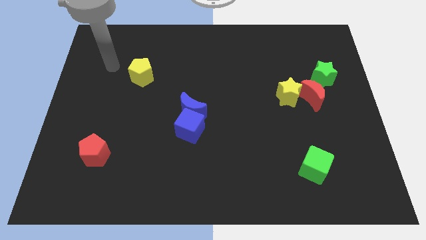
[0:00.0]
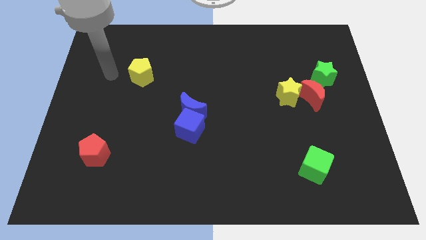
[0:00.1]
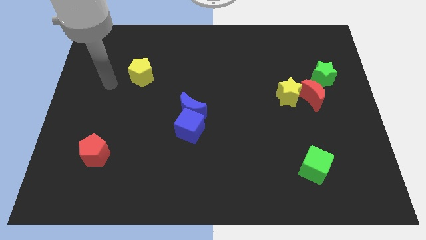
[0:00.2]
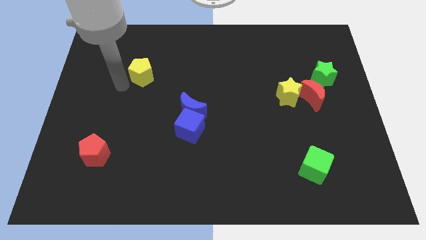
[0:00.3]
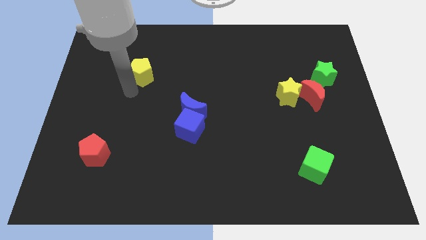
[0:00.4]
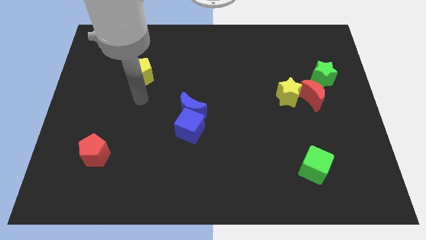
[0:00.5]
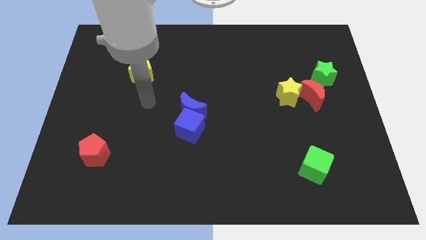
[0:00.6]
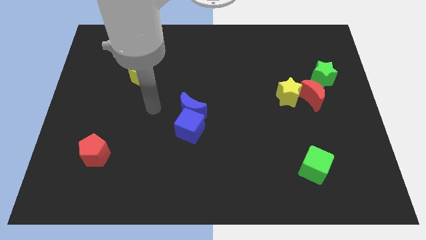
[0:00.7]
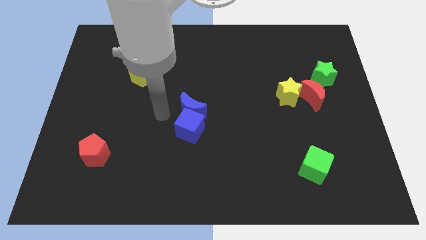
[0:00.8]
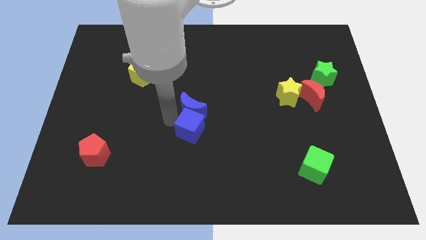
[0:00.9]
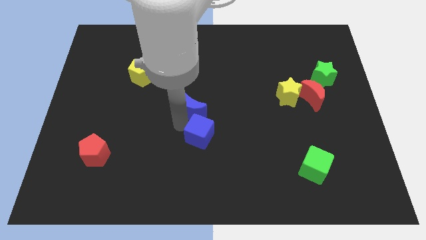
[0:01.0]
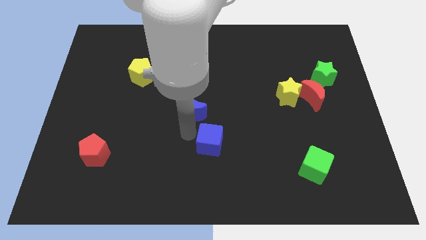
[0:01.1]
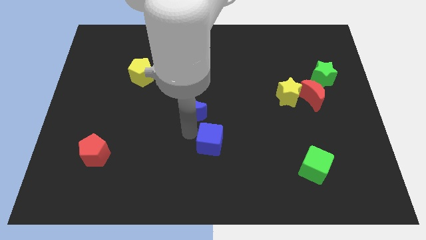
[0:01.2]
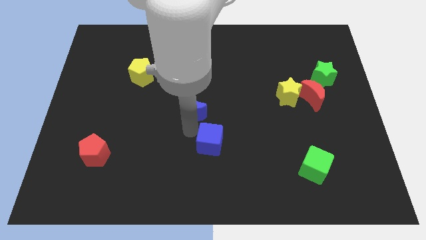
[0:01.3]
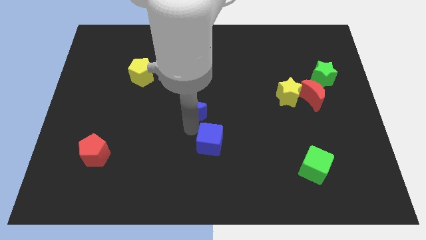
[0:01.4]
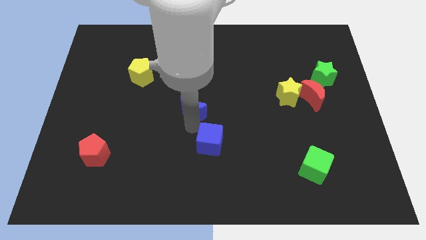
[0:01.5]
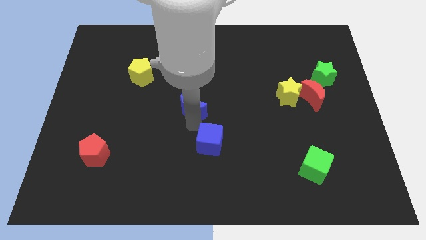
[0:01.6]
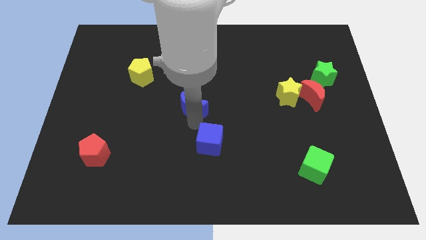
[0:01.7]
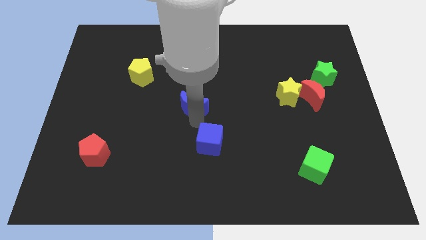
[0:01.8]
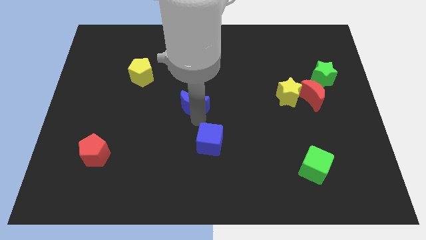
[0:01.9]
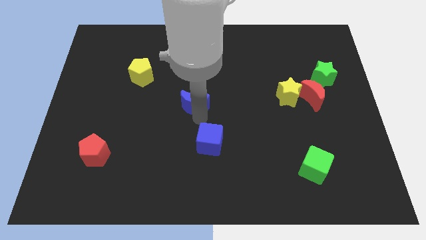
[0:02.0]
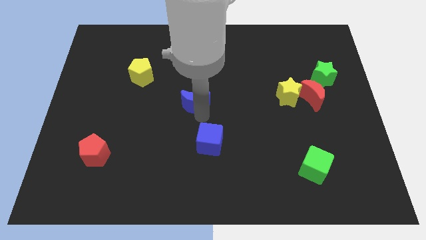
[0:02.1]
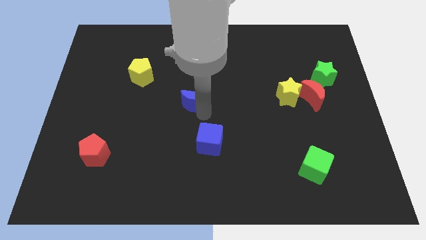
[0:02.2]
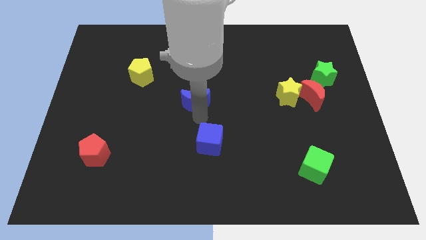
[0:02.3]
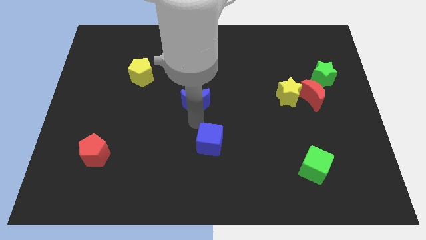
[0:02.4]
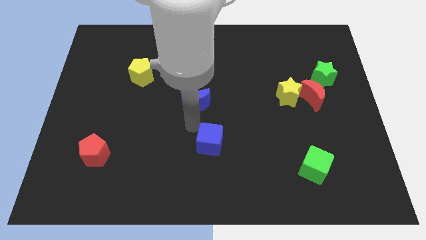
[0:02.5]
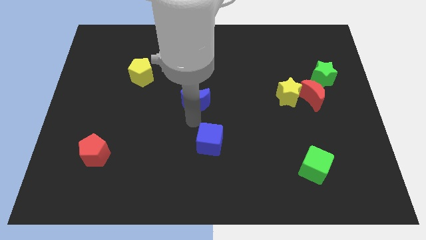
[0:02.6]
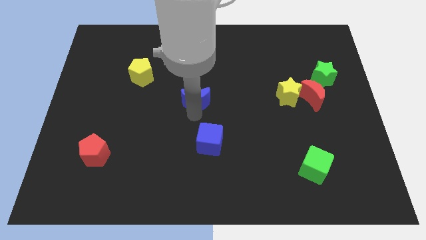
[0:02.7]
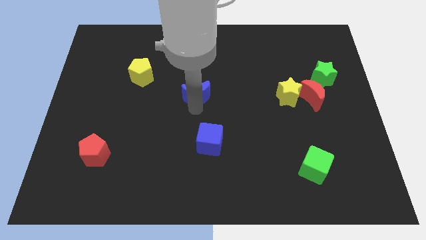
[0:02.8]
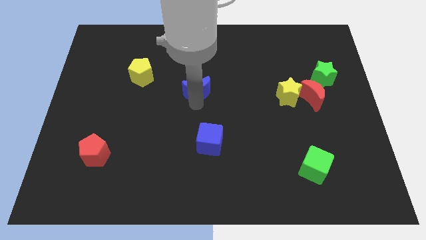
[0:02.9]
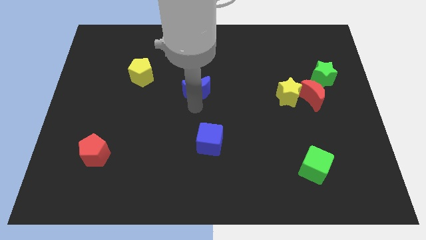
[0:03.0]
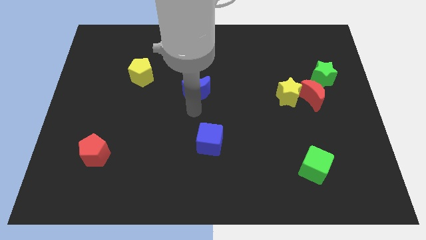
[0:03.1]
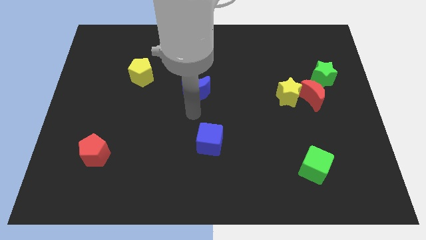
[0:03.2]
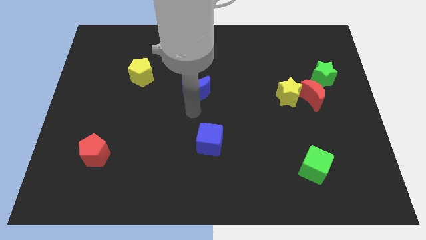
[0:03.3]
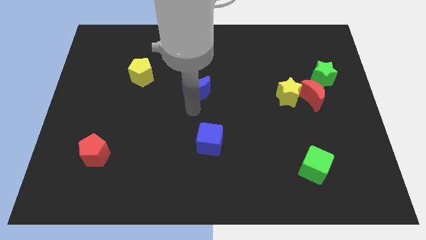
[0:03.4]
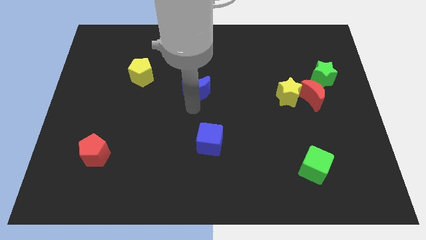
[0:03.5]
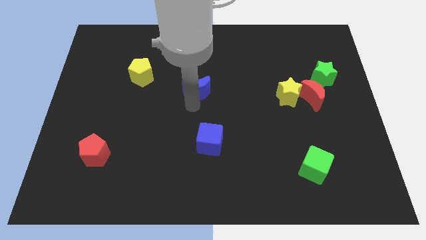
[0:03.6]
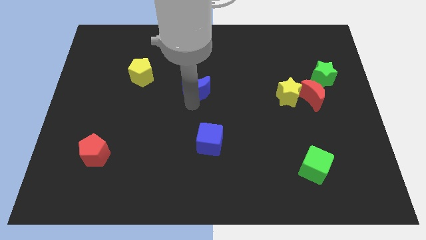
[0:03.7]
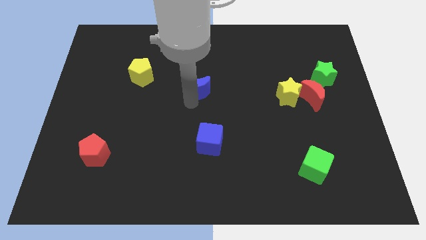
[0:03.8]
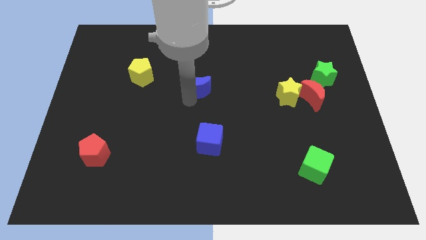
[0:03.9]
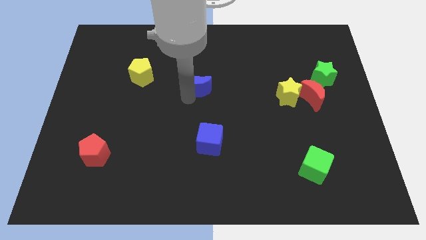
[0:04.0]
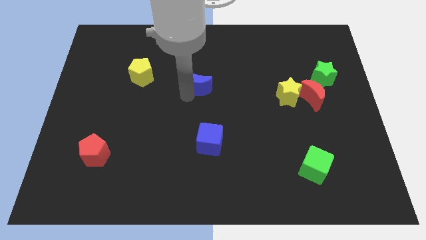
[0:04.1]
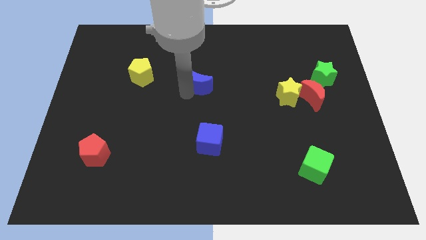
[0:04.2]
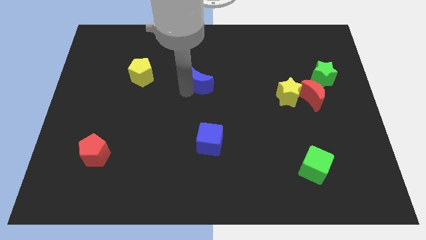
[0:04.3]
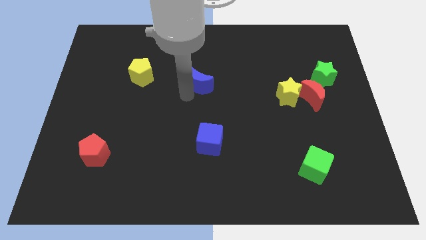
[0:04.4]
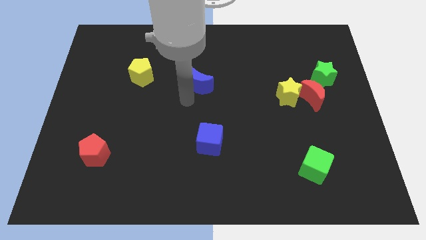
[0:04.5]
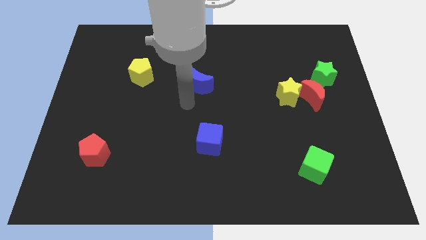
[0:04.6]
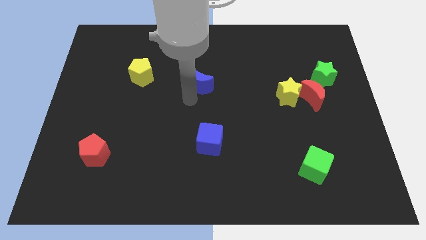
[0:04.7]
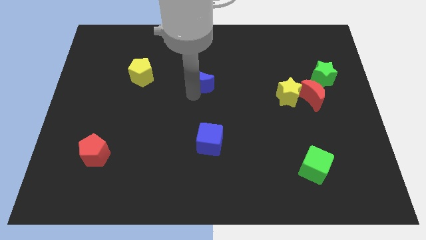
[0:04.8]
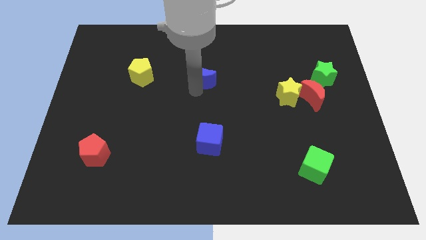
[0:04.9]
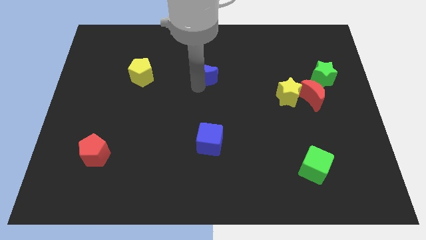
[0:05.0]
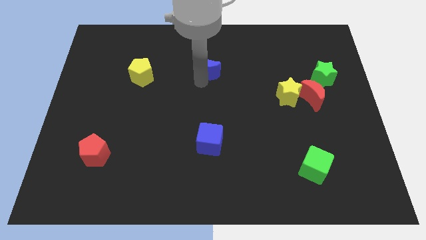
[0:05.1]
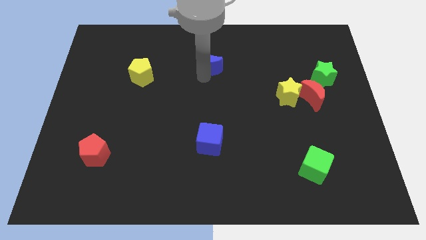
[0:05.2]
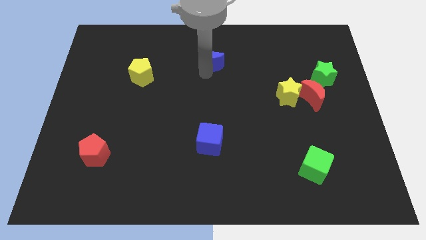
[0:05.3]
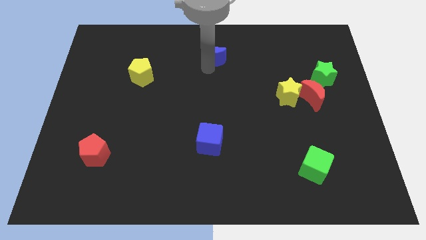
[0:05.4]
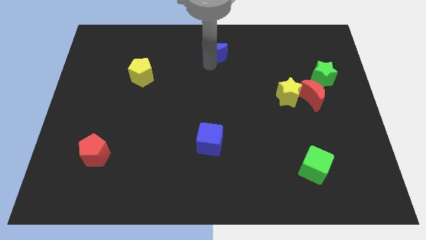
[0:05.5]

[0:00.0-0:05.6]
move the blue moon to the towards your base

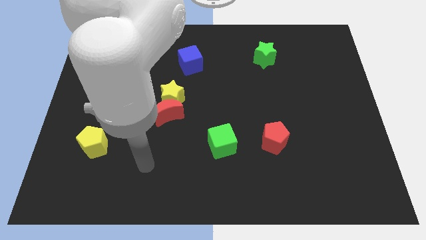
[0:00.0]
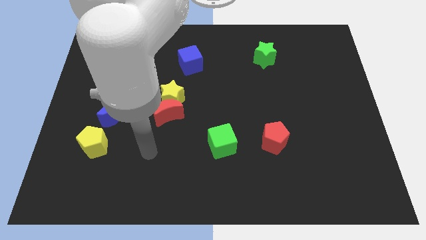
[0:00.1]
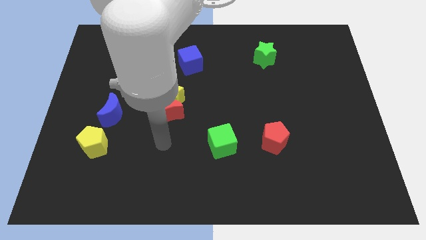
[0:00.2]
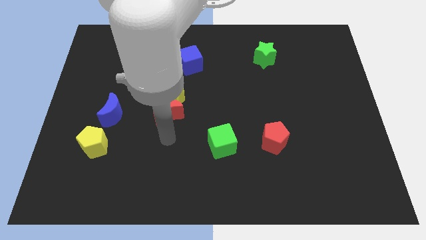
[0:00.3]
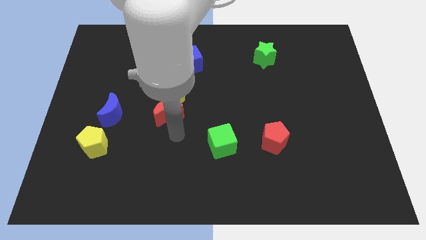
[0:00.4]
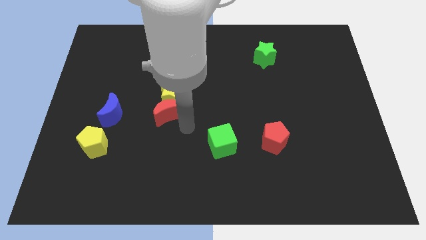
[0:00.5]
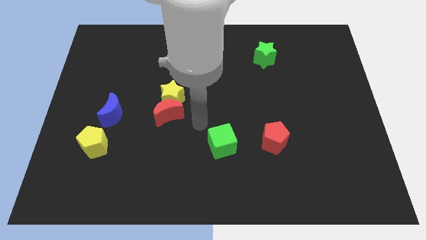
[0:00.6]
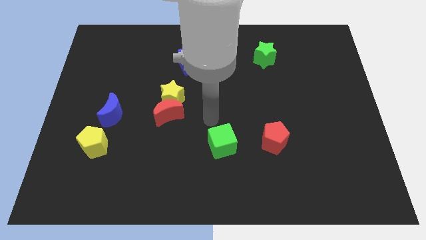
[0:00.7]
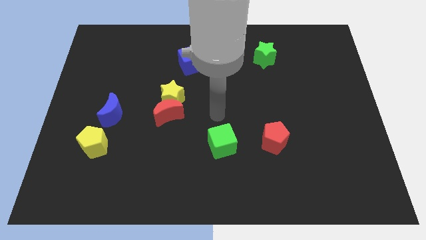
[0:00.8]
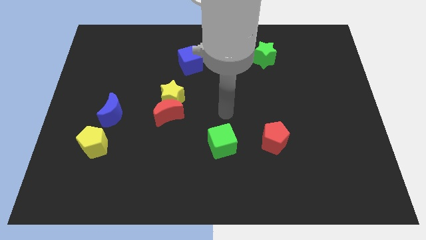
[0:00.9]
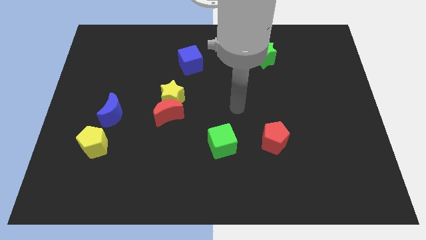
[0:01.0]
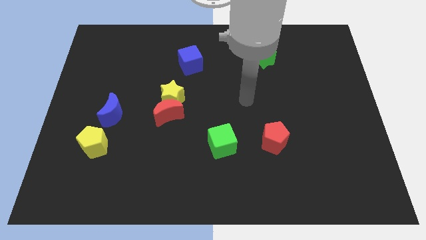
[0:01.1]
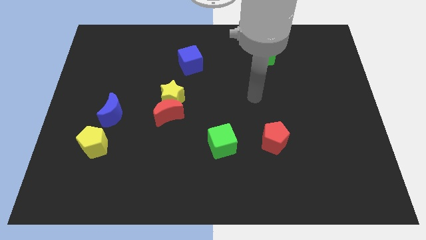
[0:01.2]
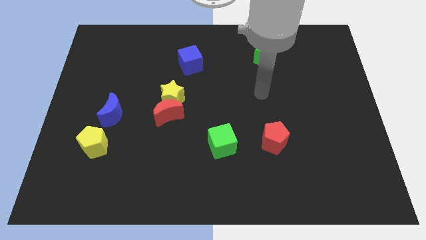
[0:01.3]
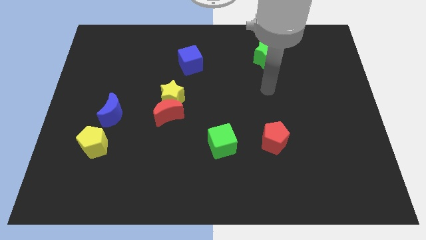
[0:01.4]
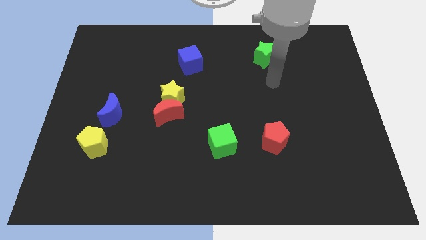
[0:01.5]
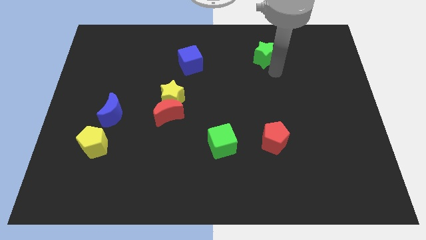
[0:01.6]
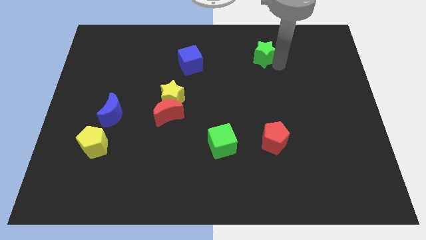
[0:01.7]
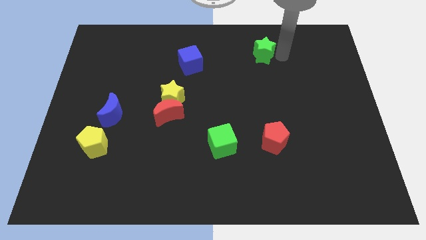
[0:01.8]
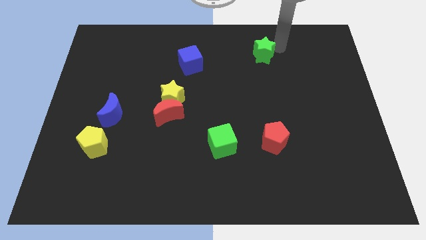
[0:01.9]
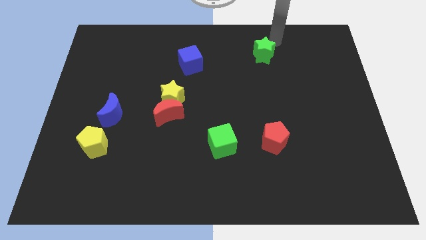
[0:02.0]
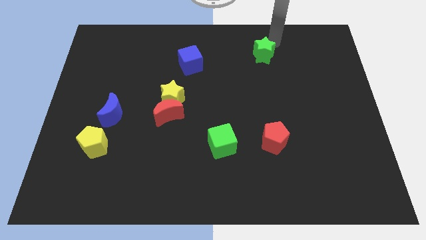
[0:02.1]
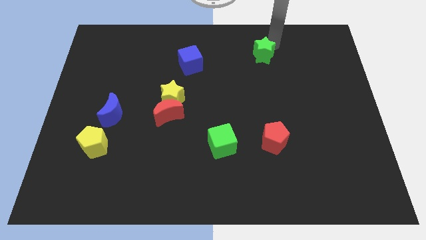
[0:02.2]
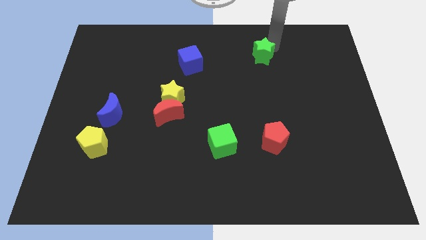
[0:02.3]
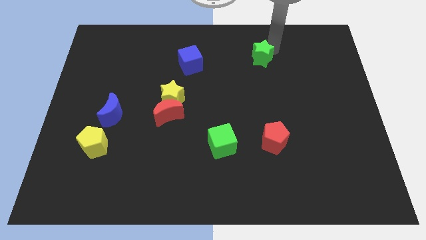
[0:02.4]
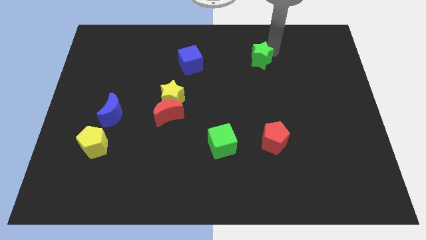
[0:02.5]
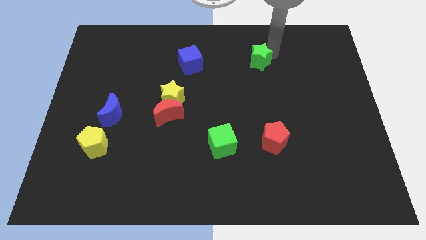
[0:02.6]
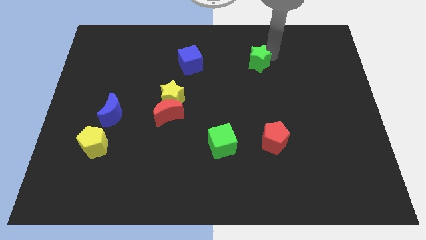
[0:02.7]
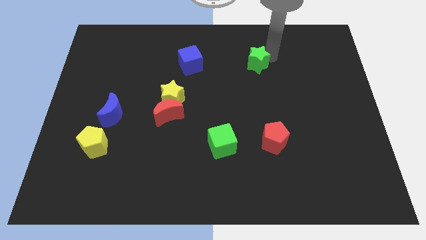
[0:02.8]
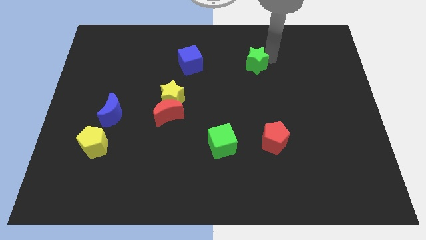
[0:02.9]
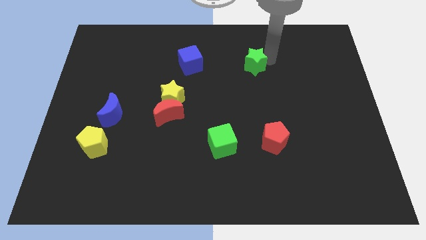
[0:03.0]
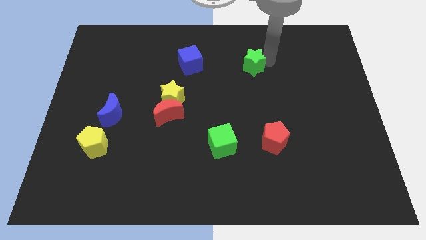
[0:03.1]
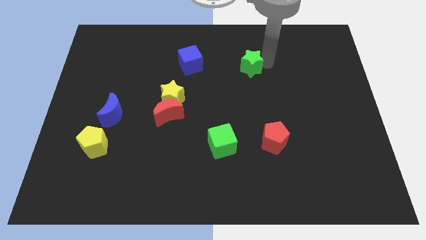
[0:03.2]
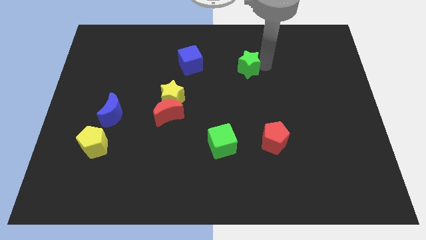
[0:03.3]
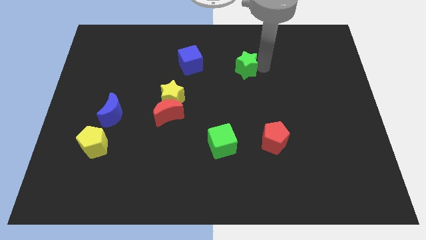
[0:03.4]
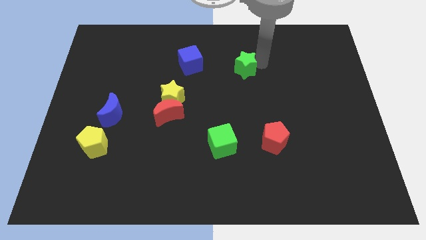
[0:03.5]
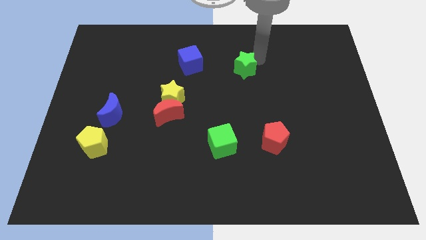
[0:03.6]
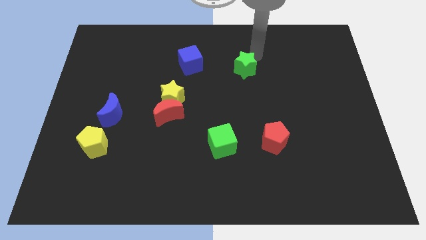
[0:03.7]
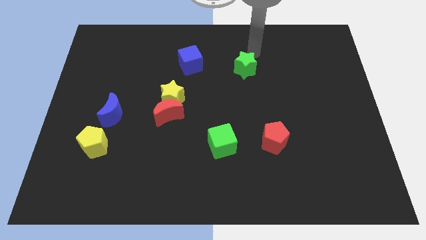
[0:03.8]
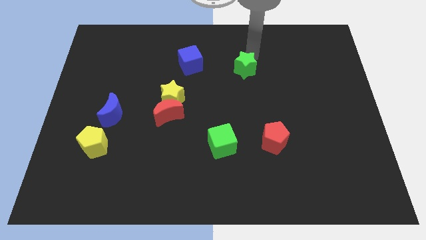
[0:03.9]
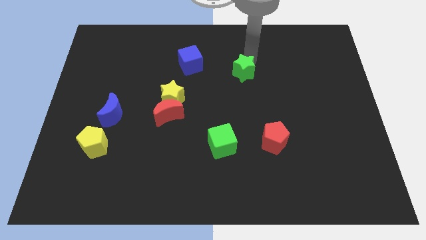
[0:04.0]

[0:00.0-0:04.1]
put the green star to the center
